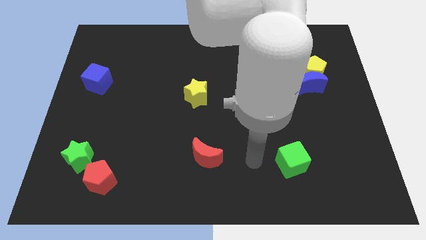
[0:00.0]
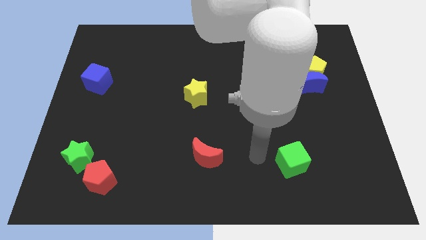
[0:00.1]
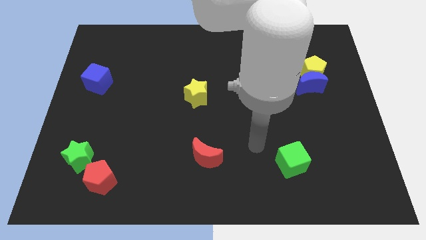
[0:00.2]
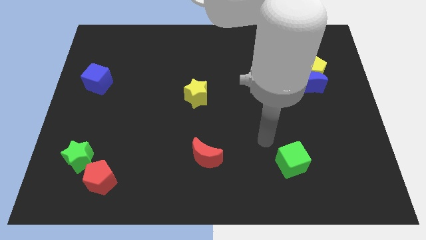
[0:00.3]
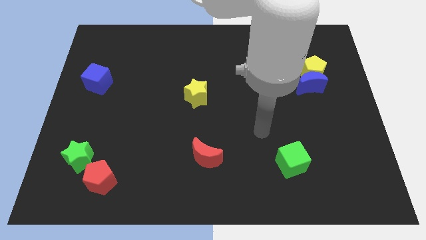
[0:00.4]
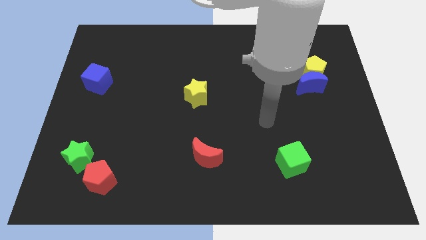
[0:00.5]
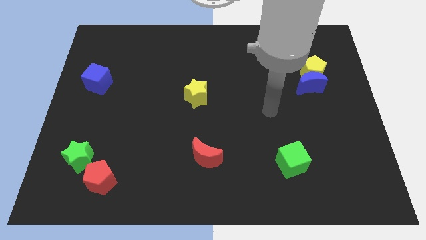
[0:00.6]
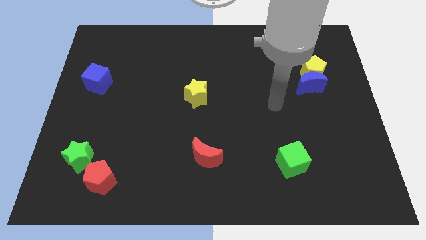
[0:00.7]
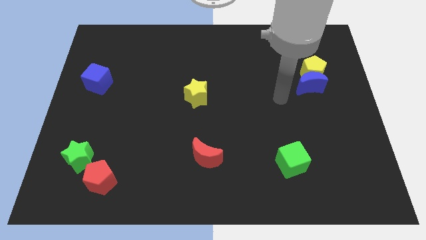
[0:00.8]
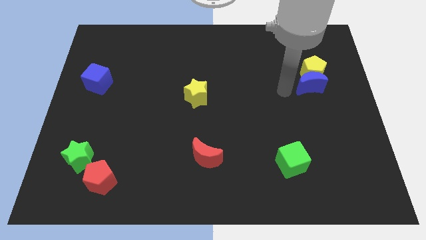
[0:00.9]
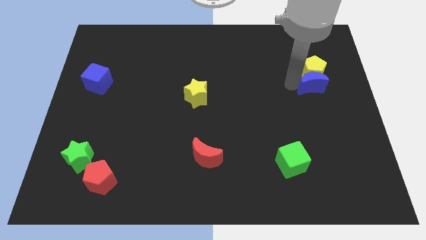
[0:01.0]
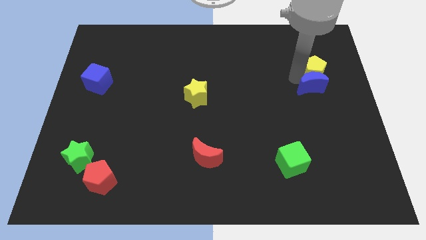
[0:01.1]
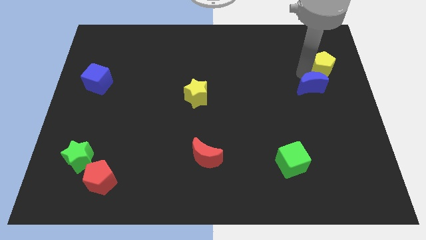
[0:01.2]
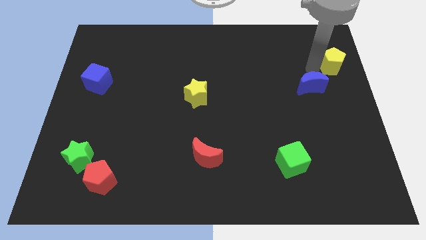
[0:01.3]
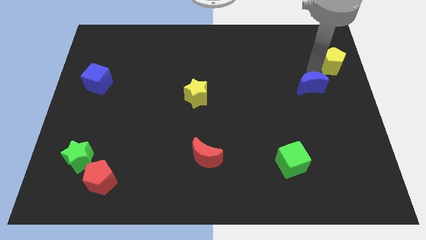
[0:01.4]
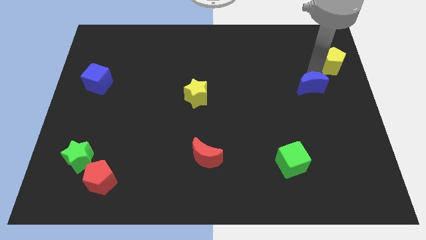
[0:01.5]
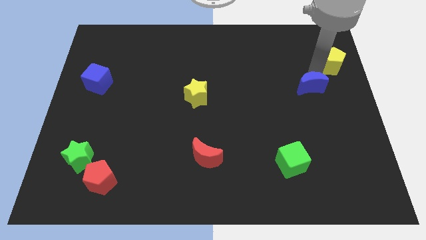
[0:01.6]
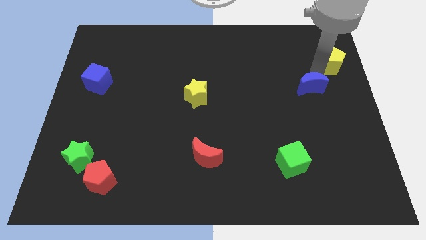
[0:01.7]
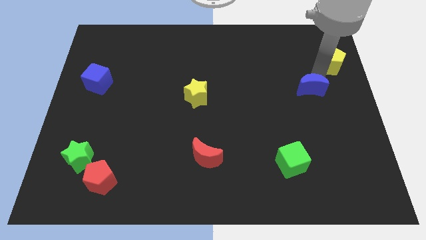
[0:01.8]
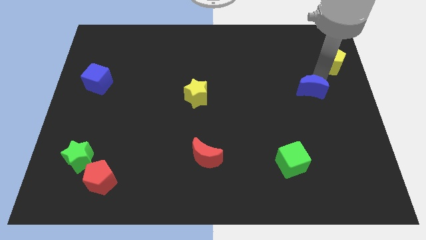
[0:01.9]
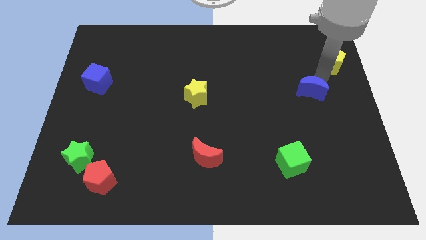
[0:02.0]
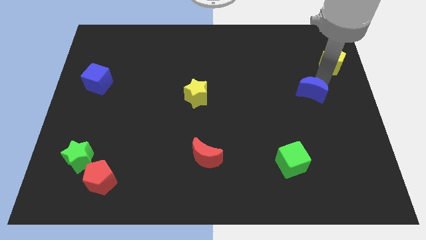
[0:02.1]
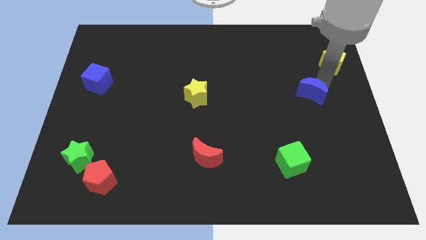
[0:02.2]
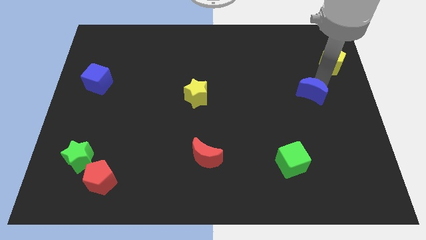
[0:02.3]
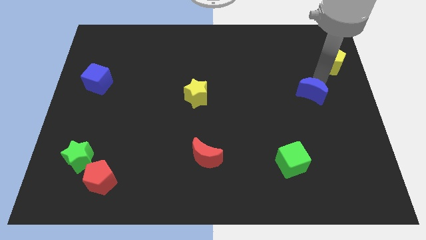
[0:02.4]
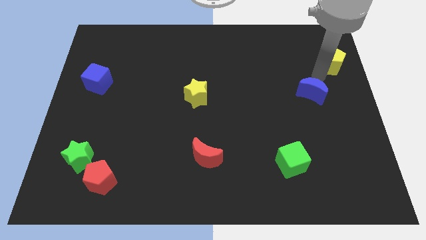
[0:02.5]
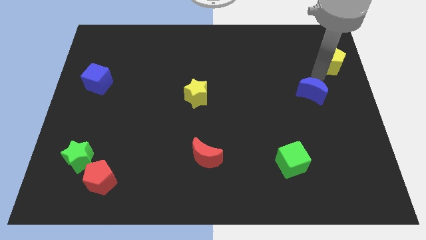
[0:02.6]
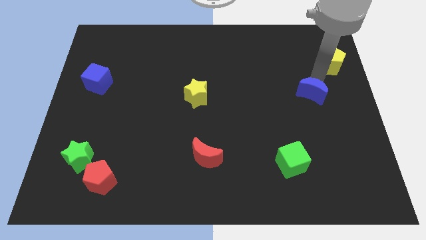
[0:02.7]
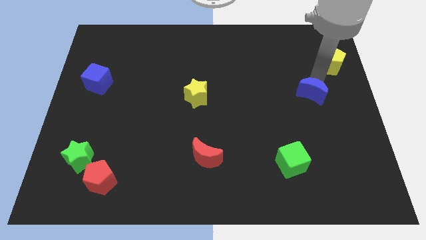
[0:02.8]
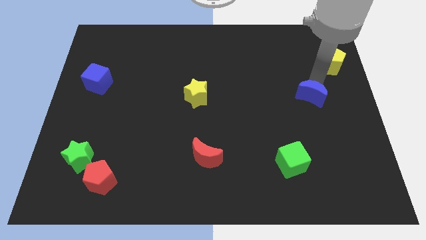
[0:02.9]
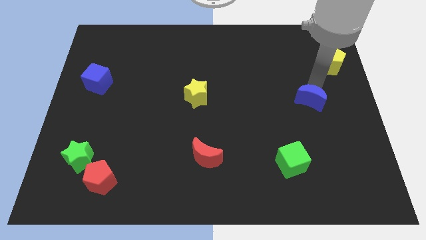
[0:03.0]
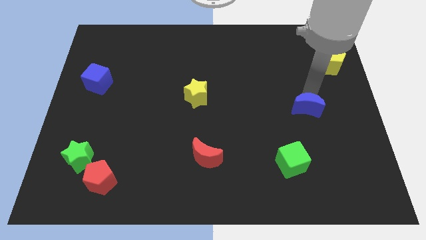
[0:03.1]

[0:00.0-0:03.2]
slide the blue moon a little downwards

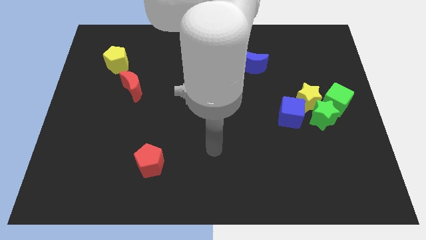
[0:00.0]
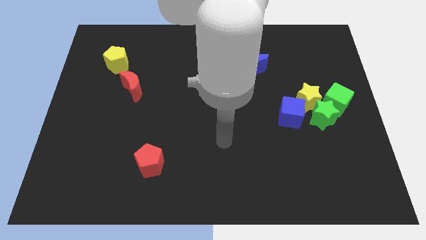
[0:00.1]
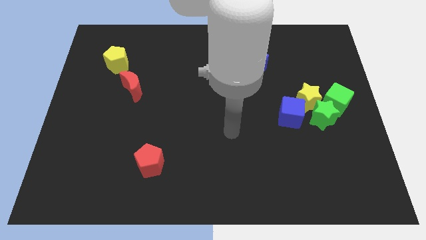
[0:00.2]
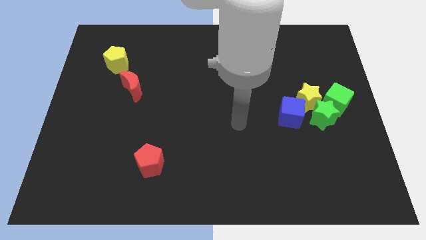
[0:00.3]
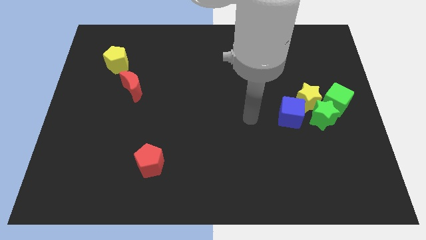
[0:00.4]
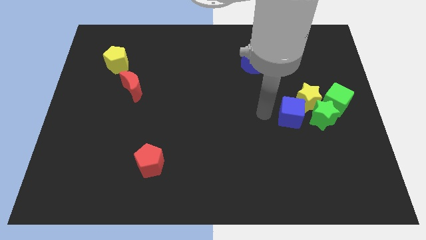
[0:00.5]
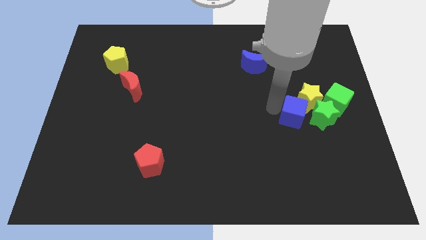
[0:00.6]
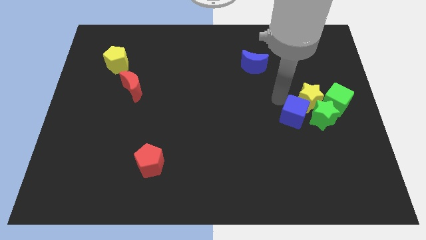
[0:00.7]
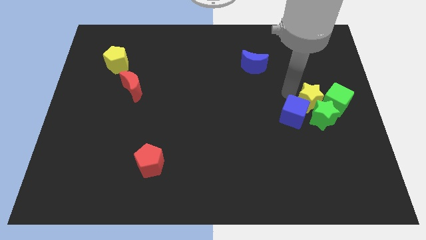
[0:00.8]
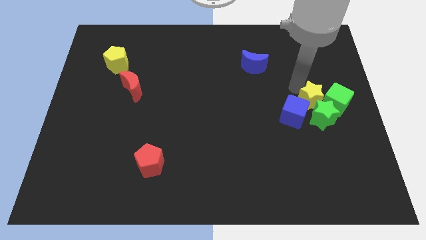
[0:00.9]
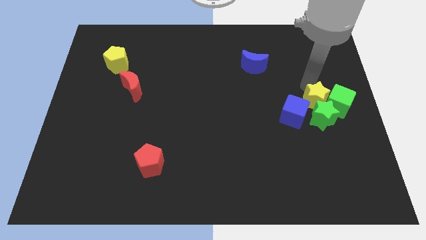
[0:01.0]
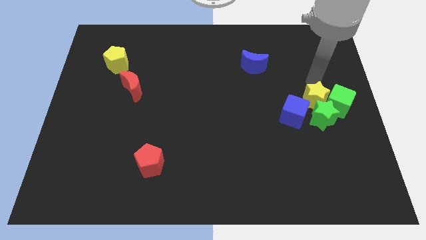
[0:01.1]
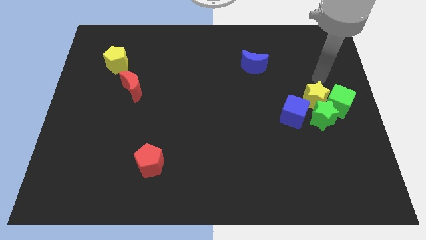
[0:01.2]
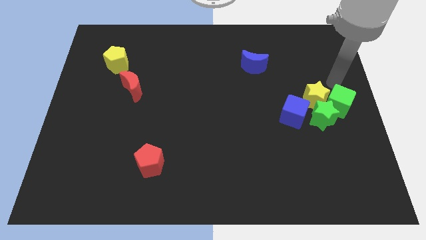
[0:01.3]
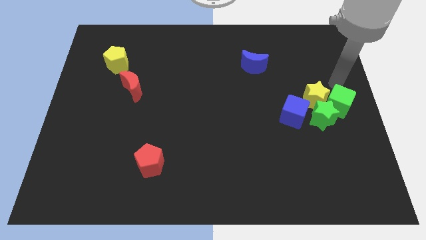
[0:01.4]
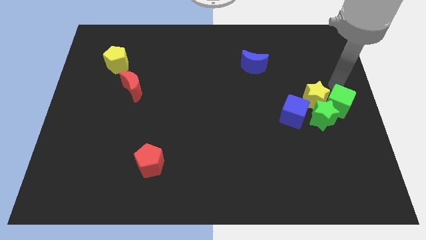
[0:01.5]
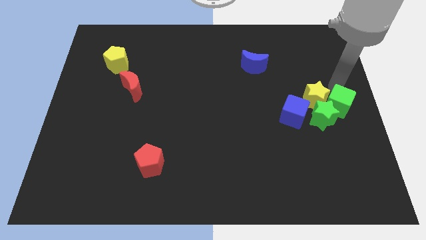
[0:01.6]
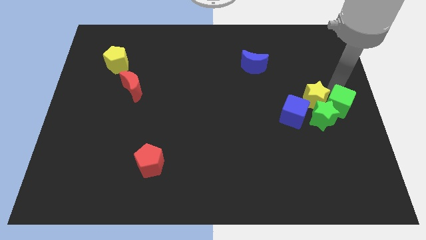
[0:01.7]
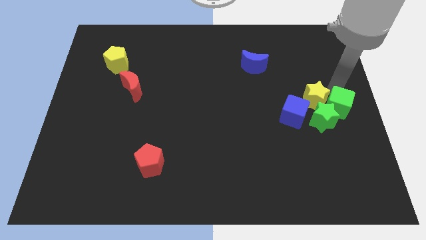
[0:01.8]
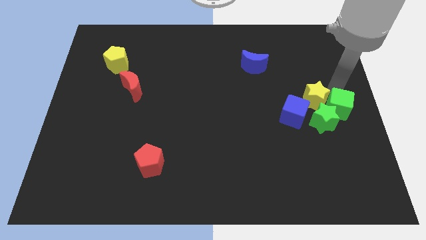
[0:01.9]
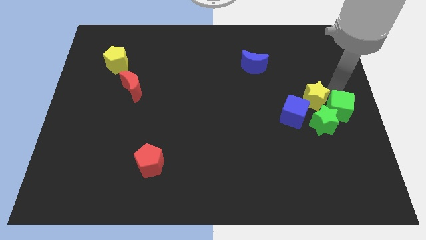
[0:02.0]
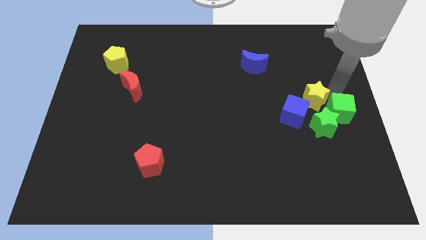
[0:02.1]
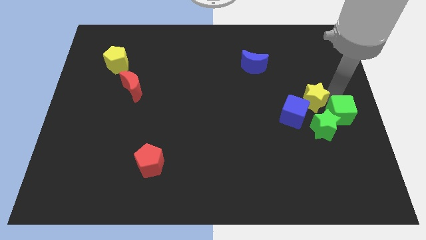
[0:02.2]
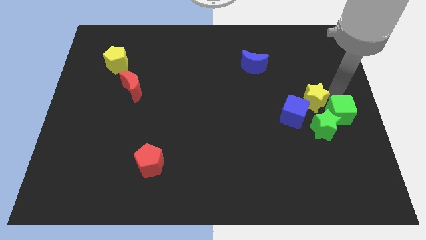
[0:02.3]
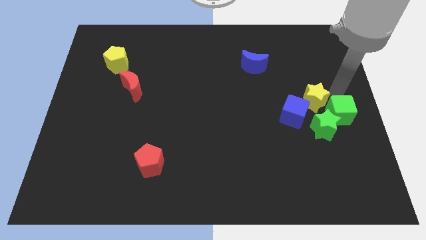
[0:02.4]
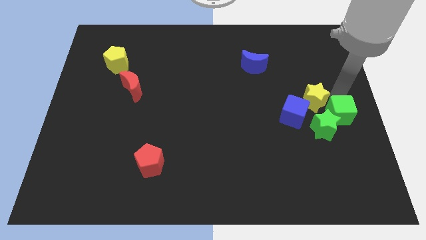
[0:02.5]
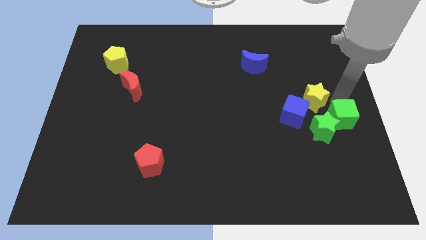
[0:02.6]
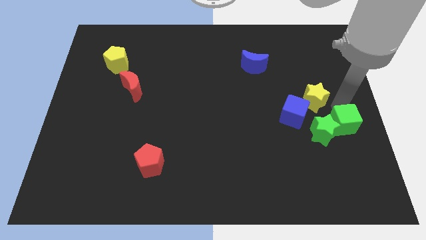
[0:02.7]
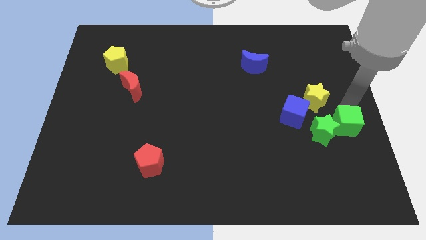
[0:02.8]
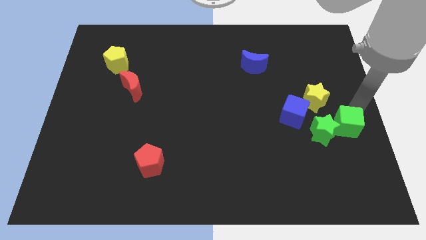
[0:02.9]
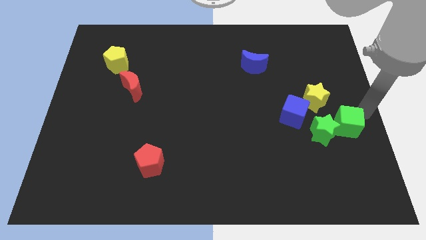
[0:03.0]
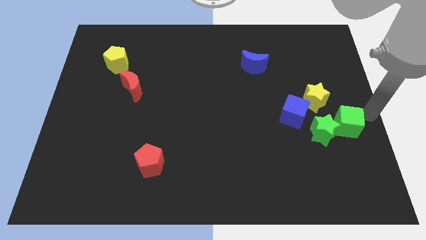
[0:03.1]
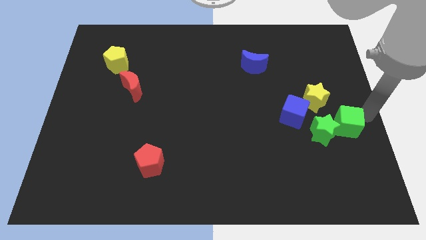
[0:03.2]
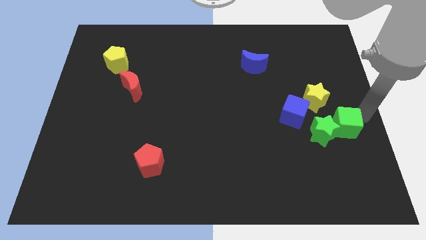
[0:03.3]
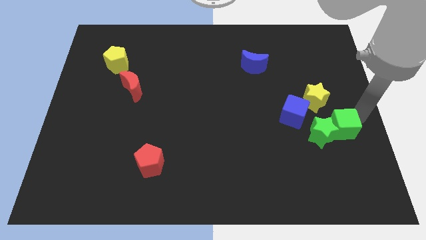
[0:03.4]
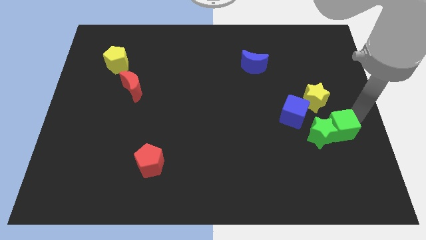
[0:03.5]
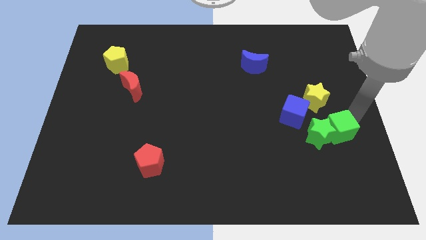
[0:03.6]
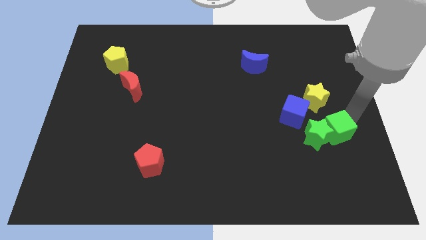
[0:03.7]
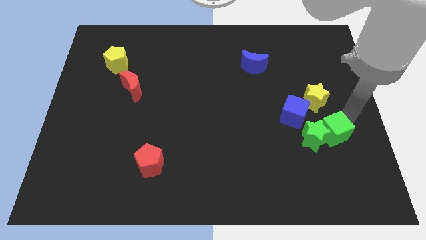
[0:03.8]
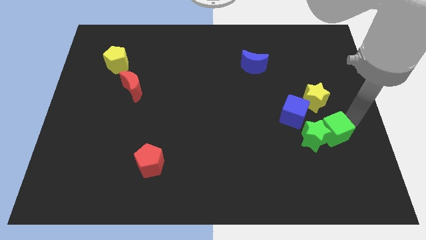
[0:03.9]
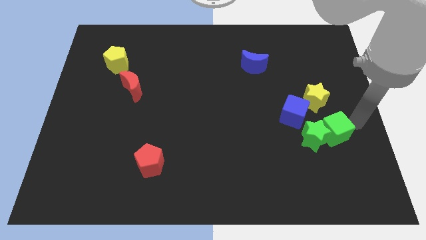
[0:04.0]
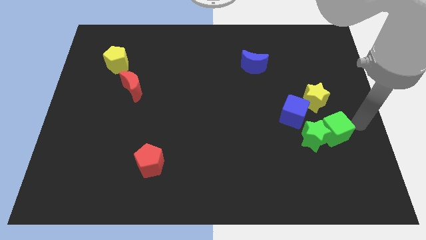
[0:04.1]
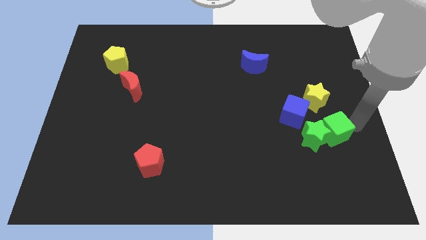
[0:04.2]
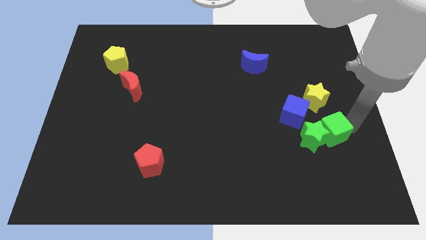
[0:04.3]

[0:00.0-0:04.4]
slightly slide the green cube down and to the left diagonally

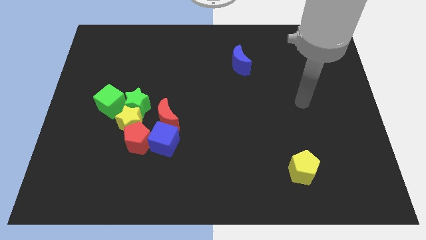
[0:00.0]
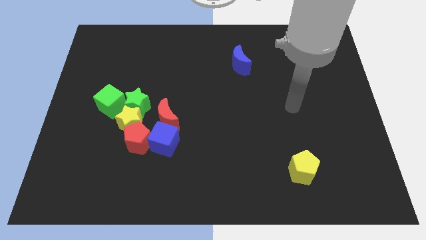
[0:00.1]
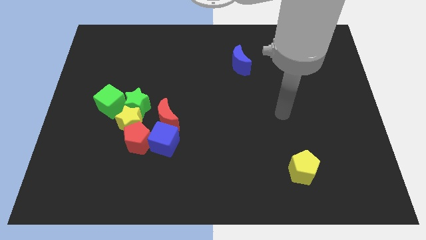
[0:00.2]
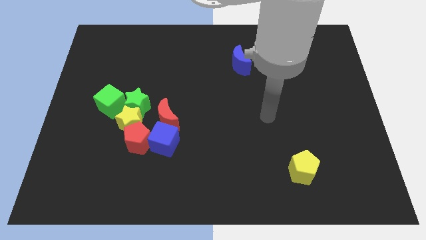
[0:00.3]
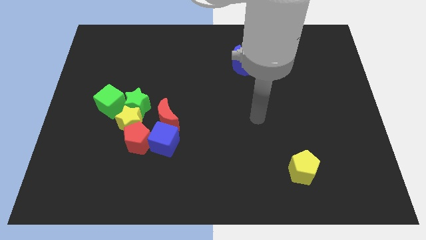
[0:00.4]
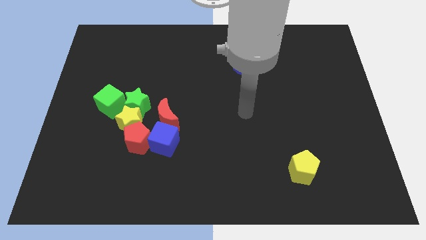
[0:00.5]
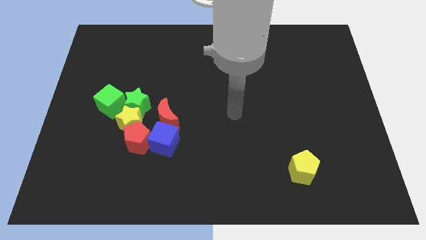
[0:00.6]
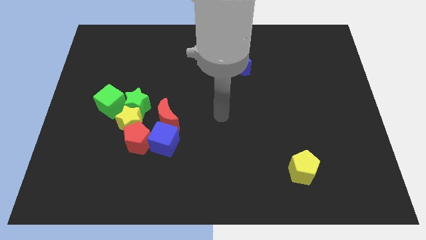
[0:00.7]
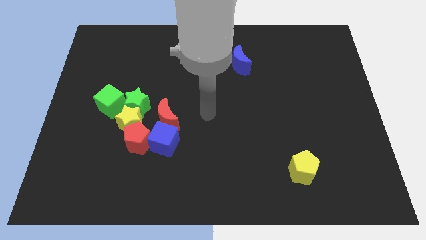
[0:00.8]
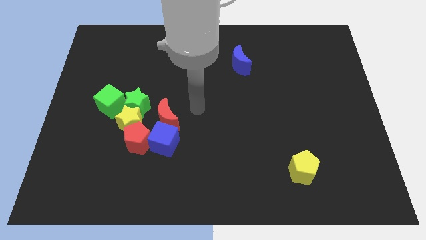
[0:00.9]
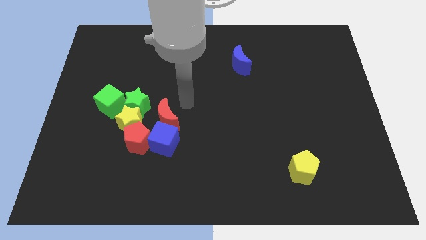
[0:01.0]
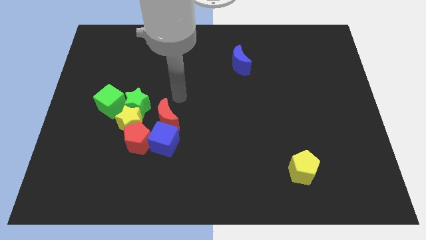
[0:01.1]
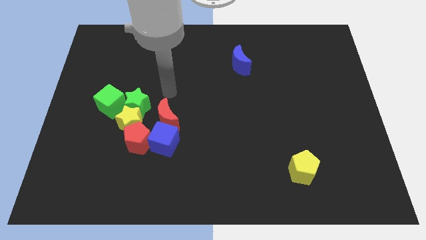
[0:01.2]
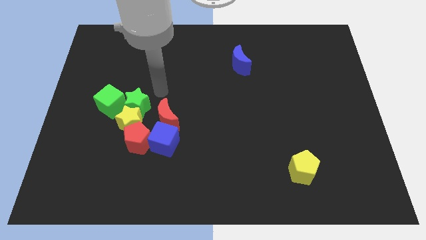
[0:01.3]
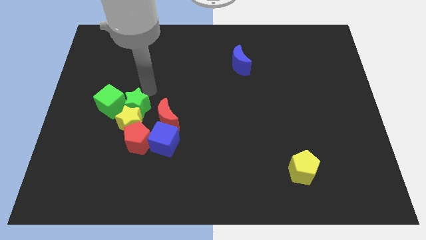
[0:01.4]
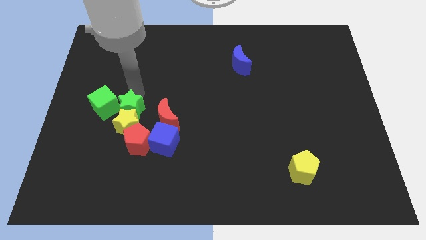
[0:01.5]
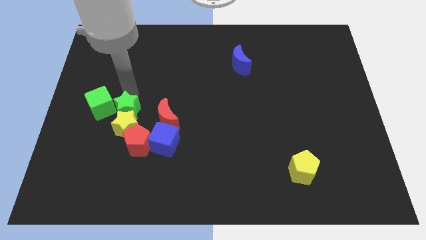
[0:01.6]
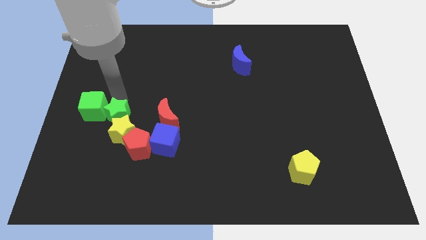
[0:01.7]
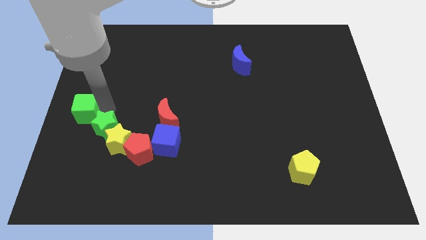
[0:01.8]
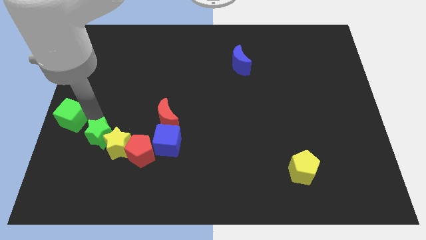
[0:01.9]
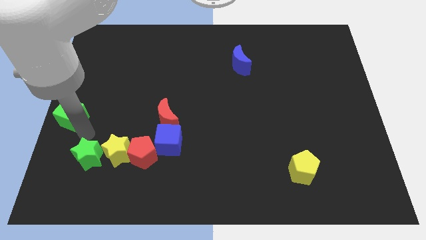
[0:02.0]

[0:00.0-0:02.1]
slightly move the green star downwards
